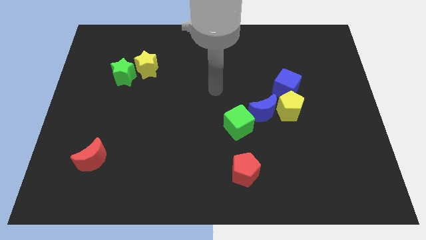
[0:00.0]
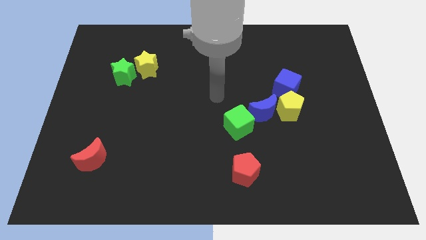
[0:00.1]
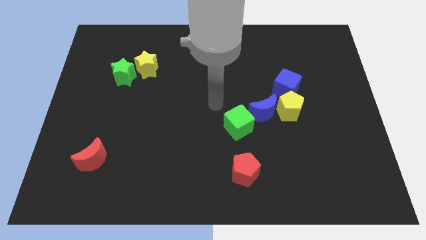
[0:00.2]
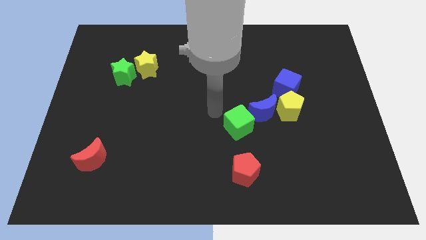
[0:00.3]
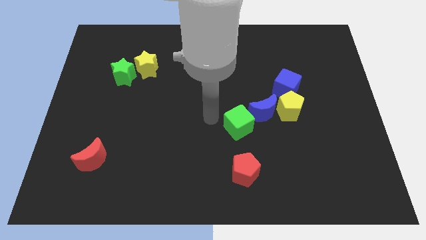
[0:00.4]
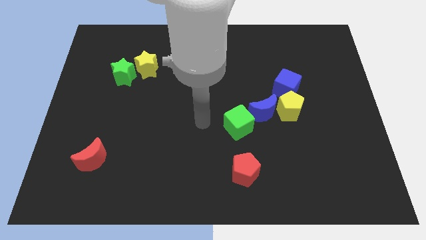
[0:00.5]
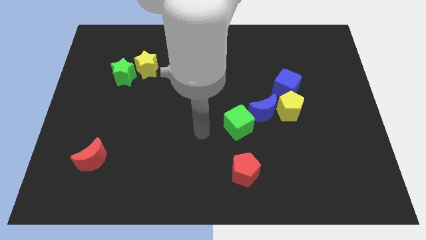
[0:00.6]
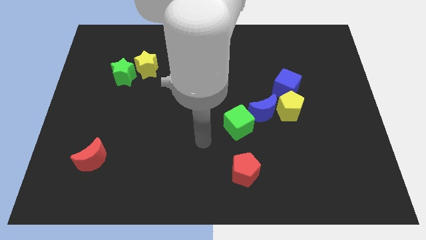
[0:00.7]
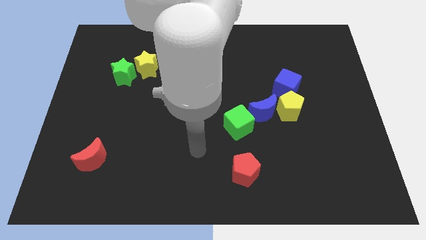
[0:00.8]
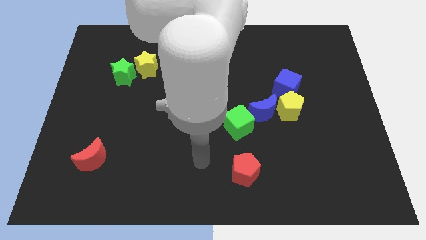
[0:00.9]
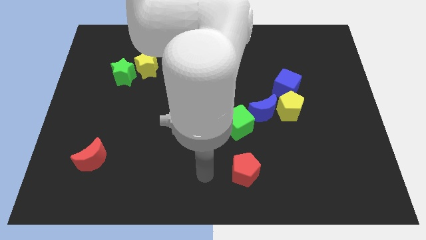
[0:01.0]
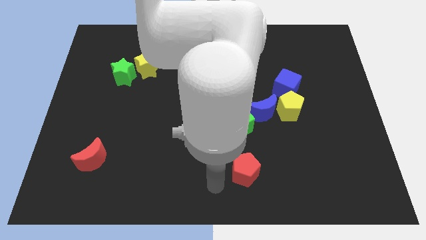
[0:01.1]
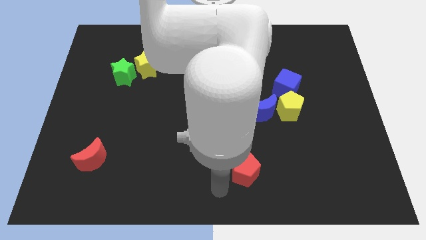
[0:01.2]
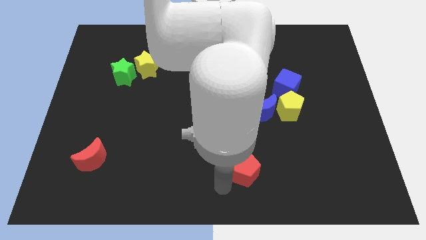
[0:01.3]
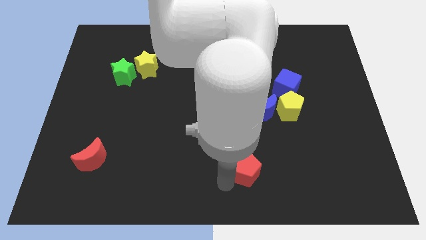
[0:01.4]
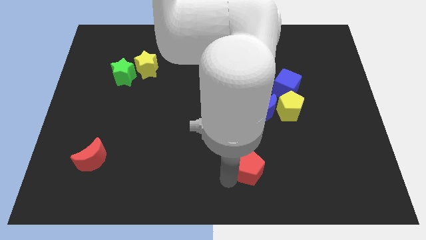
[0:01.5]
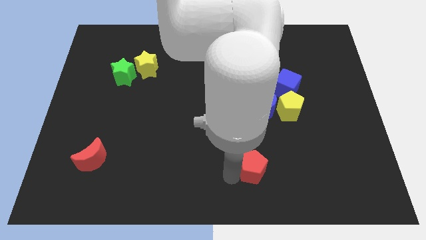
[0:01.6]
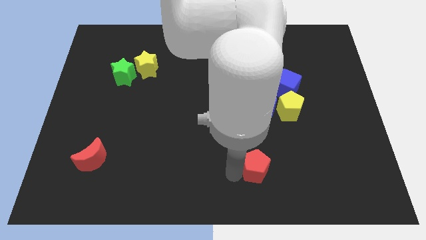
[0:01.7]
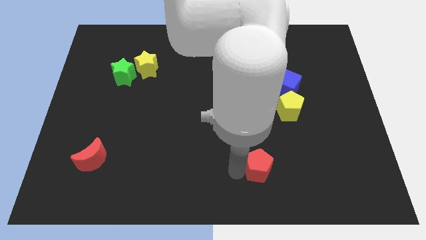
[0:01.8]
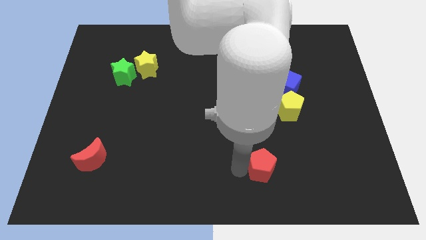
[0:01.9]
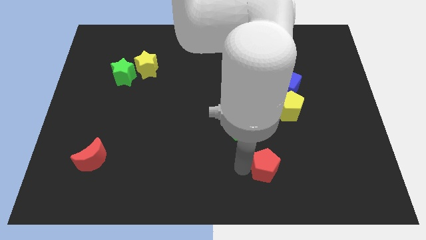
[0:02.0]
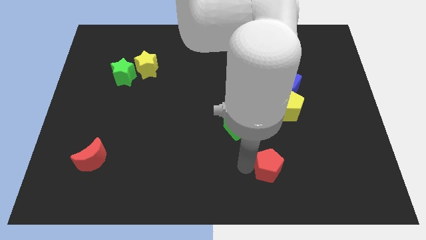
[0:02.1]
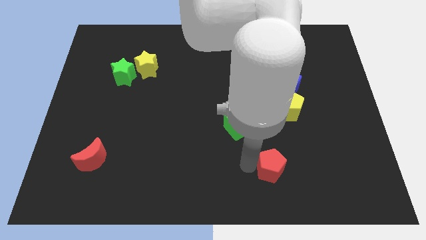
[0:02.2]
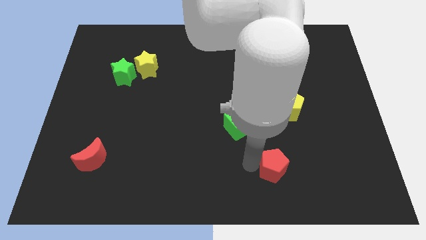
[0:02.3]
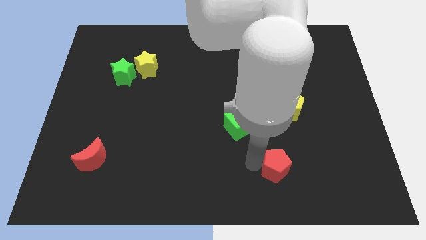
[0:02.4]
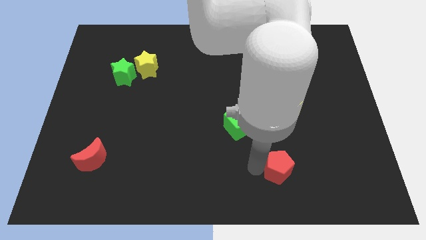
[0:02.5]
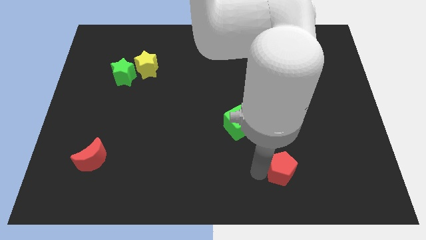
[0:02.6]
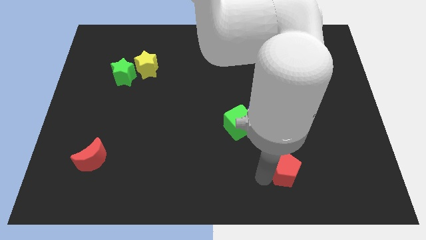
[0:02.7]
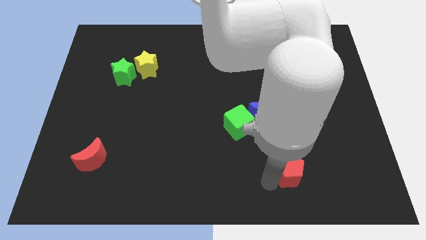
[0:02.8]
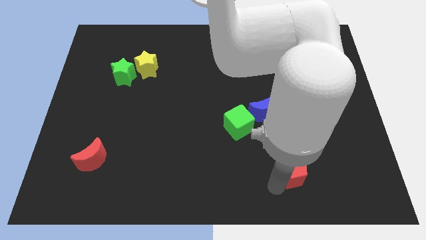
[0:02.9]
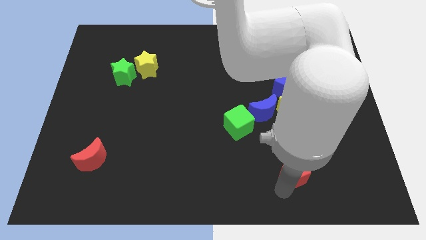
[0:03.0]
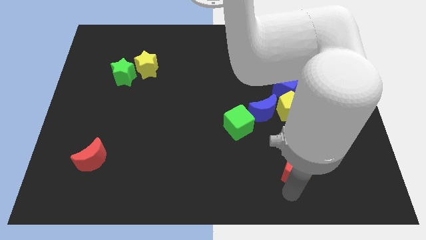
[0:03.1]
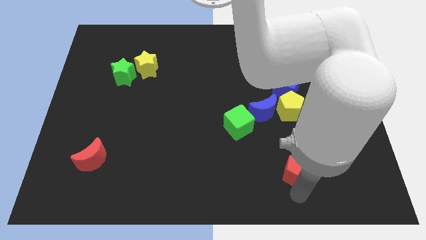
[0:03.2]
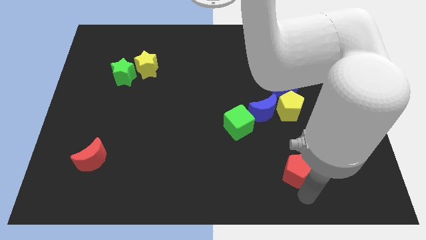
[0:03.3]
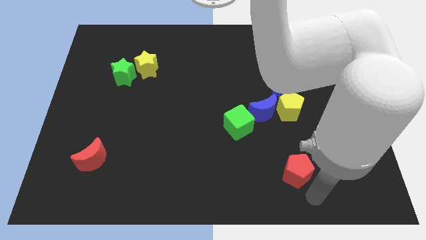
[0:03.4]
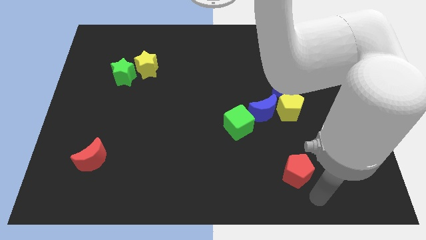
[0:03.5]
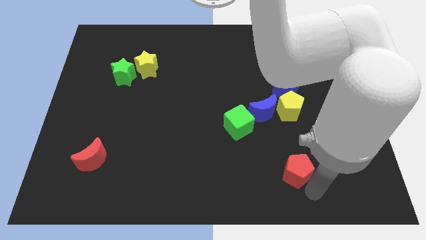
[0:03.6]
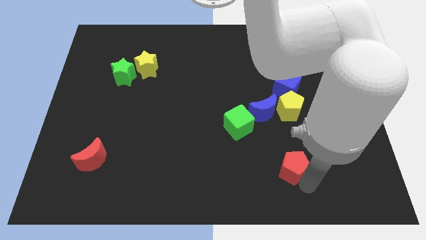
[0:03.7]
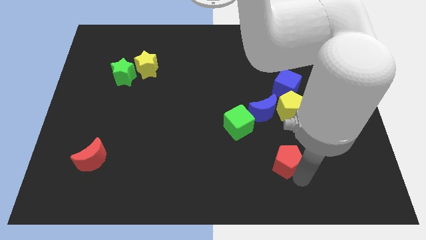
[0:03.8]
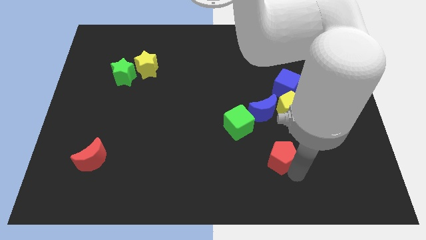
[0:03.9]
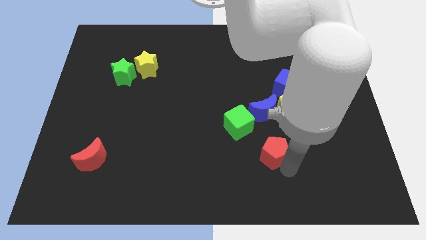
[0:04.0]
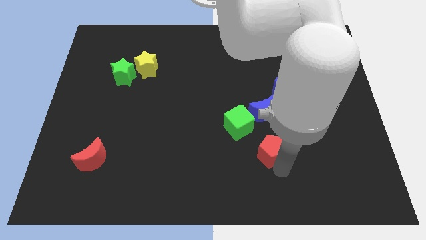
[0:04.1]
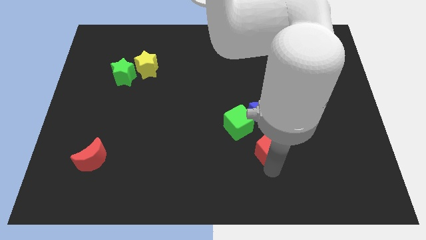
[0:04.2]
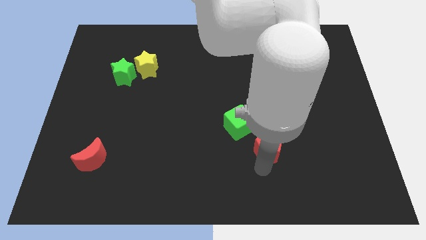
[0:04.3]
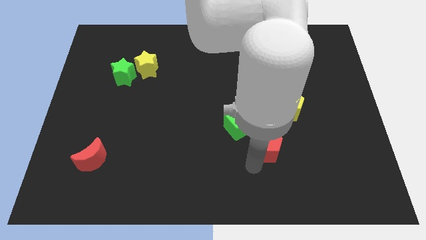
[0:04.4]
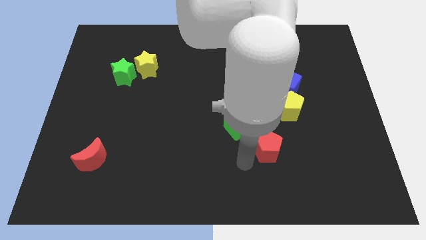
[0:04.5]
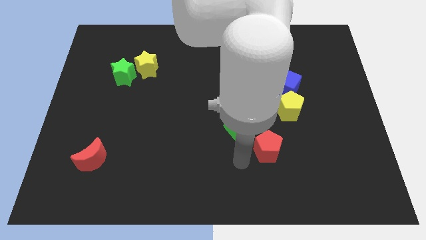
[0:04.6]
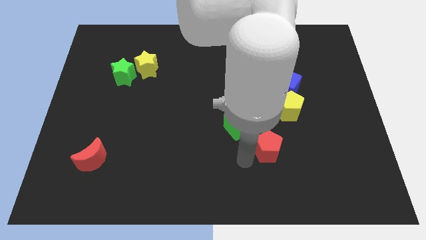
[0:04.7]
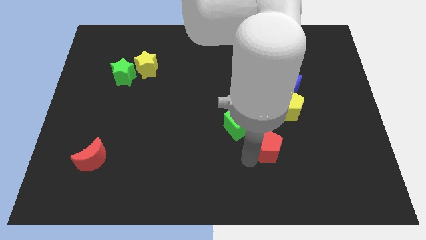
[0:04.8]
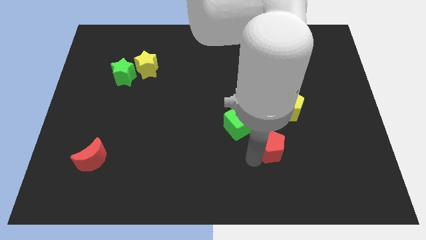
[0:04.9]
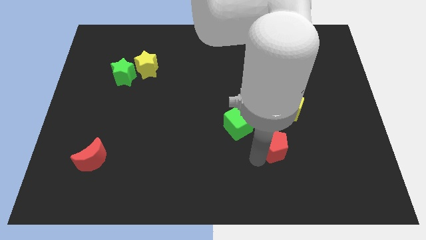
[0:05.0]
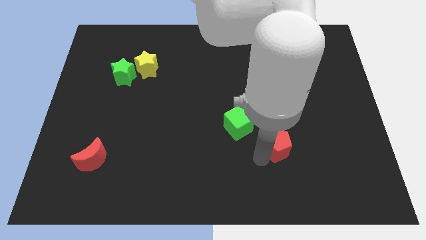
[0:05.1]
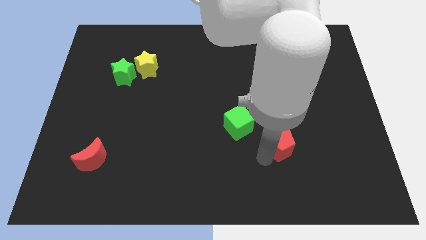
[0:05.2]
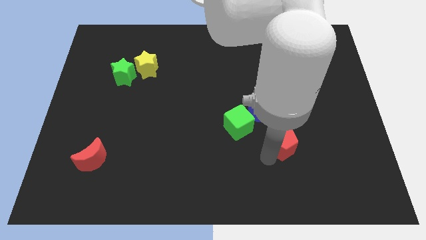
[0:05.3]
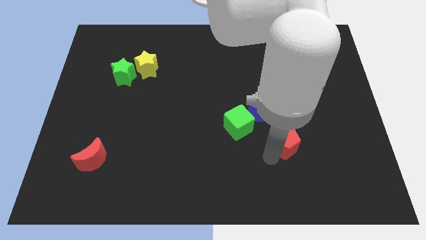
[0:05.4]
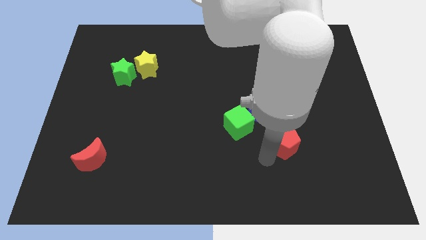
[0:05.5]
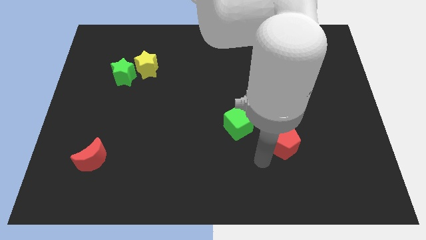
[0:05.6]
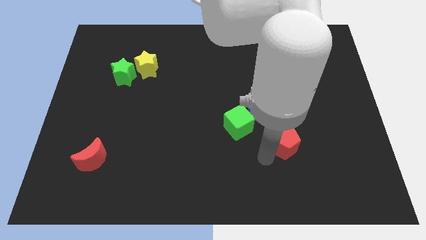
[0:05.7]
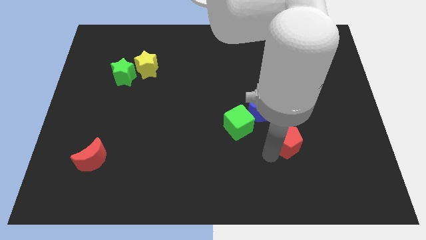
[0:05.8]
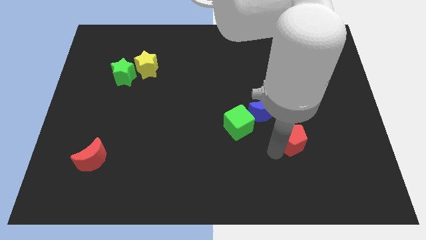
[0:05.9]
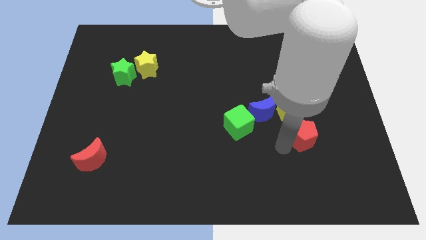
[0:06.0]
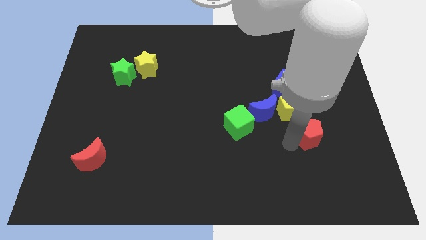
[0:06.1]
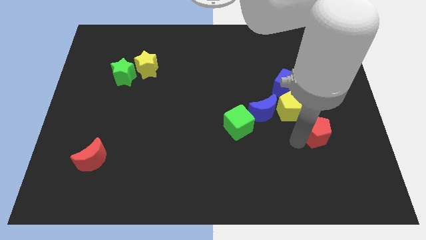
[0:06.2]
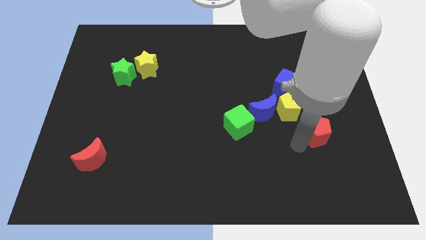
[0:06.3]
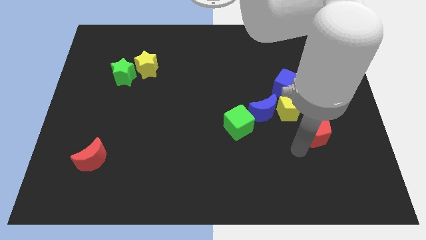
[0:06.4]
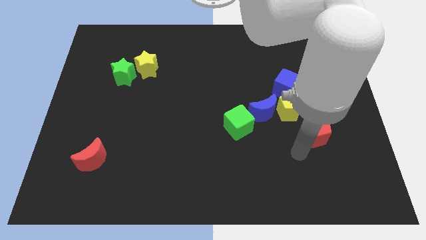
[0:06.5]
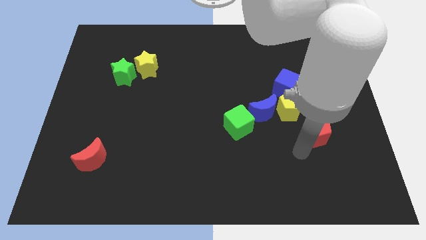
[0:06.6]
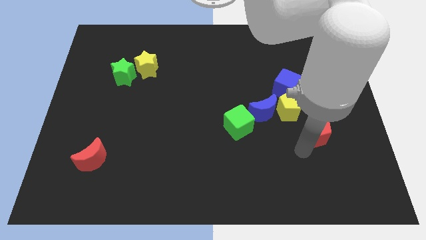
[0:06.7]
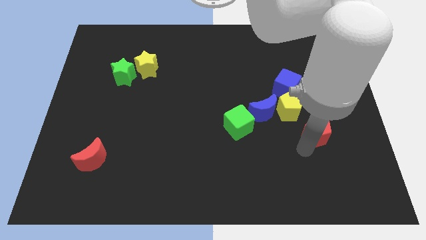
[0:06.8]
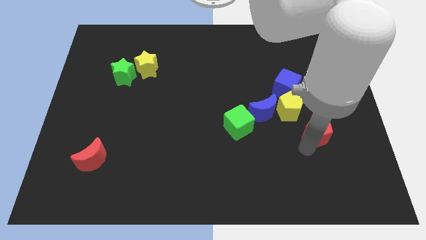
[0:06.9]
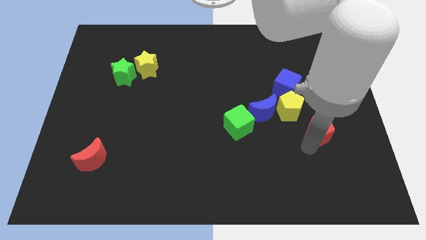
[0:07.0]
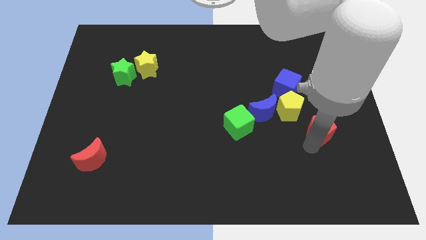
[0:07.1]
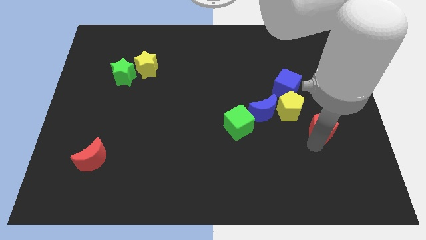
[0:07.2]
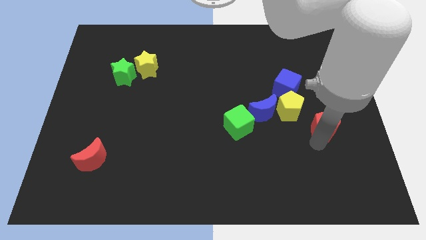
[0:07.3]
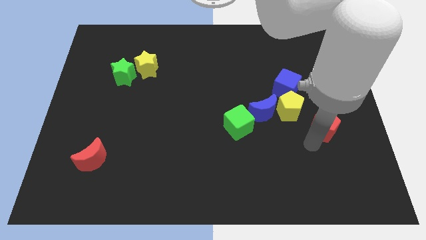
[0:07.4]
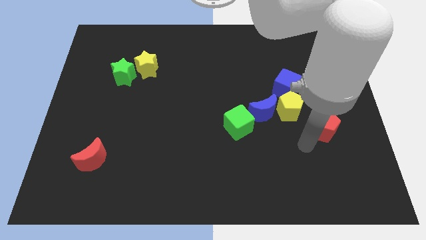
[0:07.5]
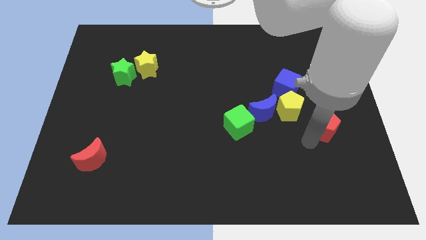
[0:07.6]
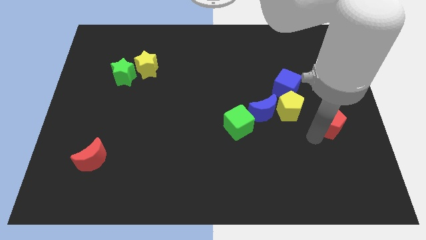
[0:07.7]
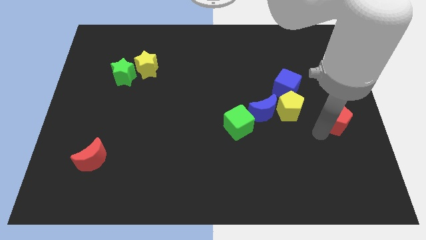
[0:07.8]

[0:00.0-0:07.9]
slide the red pentagon to the center right
